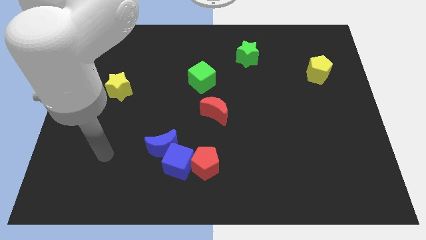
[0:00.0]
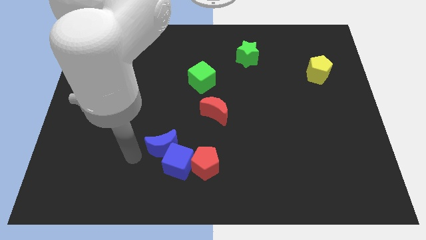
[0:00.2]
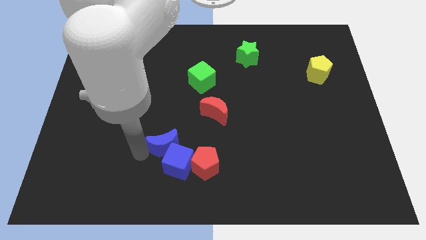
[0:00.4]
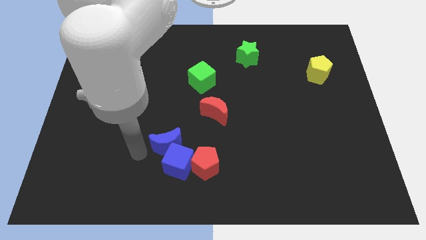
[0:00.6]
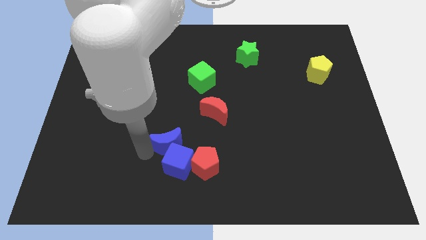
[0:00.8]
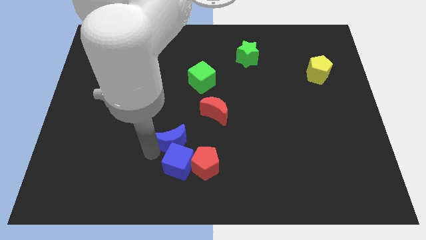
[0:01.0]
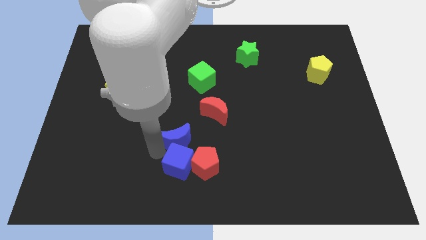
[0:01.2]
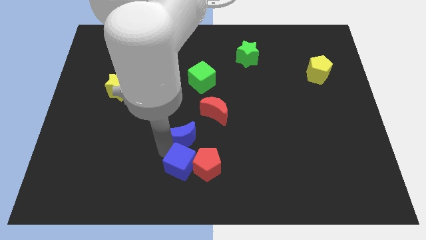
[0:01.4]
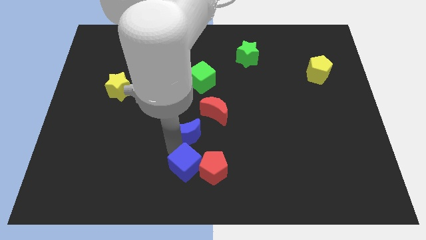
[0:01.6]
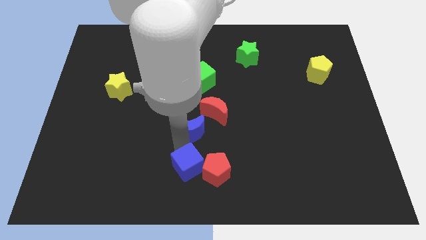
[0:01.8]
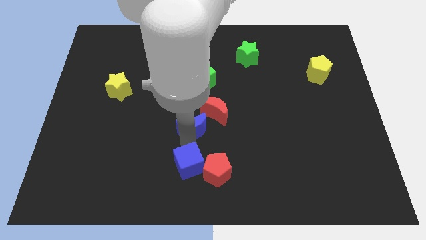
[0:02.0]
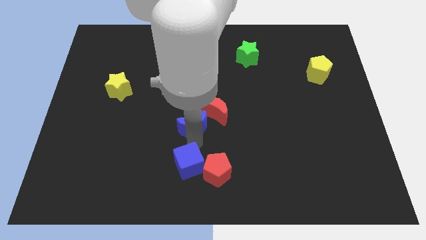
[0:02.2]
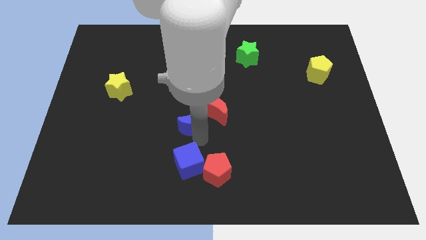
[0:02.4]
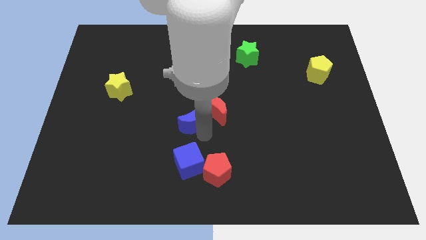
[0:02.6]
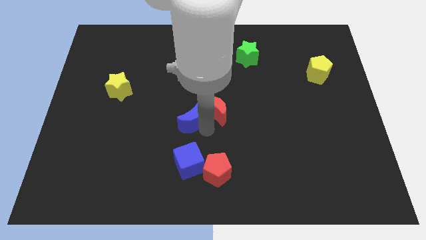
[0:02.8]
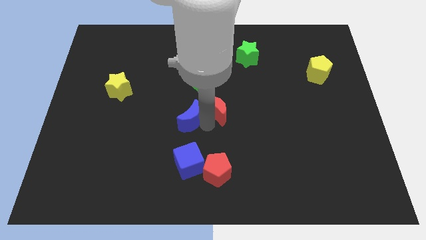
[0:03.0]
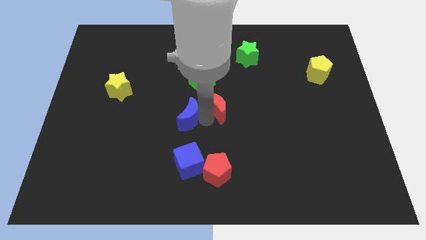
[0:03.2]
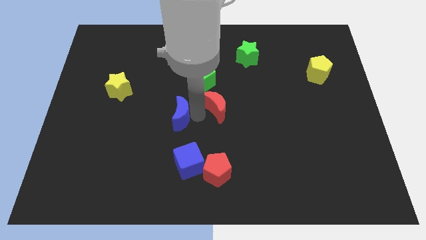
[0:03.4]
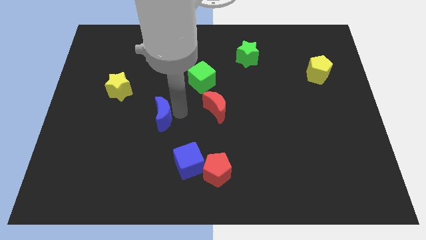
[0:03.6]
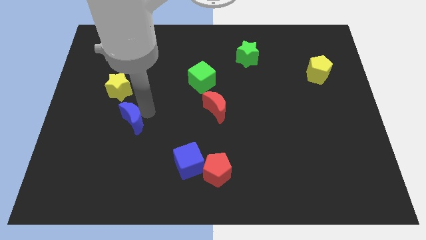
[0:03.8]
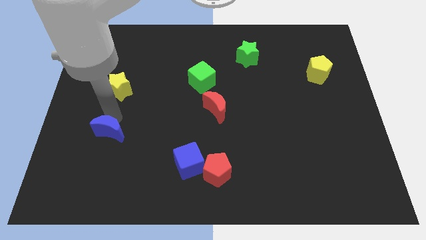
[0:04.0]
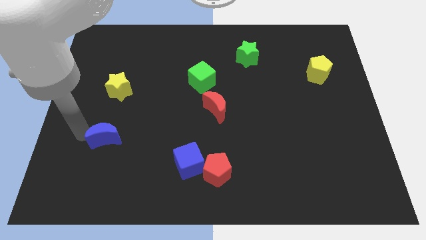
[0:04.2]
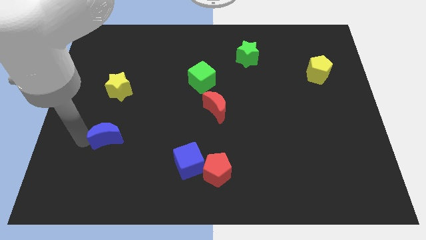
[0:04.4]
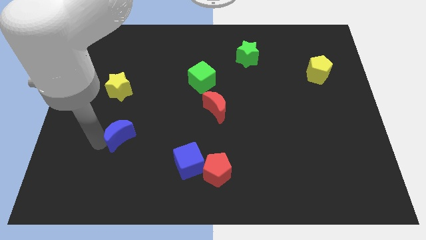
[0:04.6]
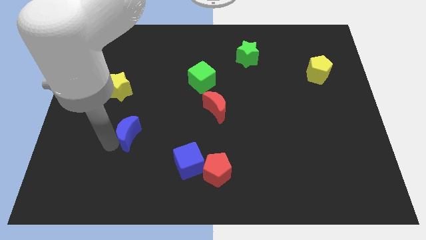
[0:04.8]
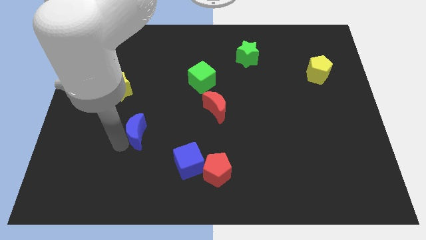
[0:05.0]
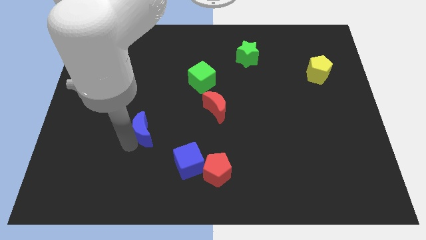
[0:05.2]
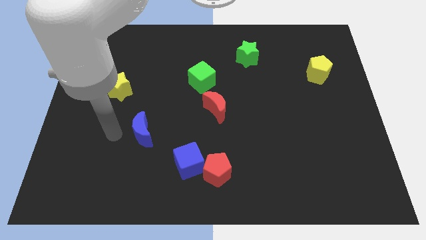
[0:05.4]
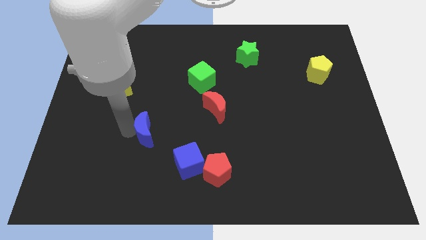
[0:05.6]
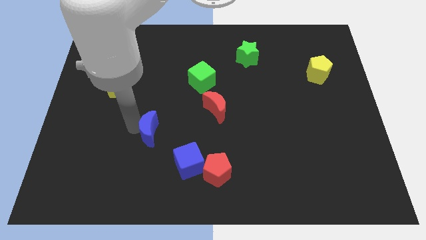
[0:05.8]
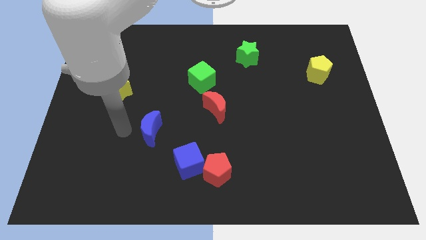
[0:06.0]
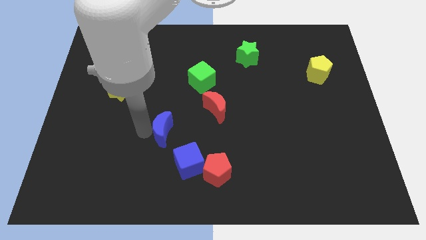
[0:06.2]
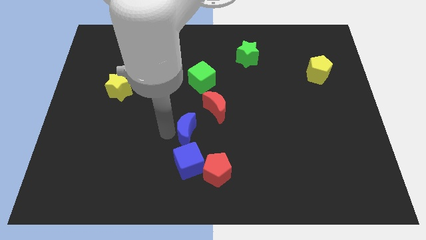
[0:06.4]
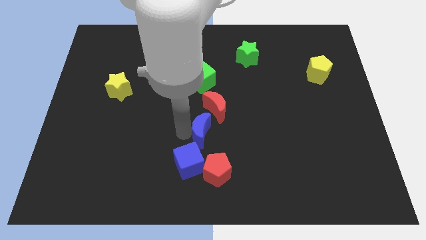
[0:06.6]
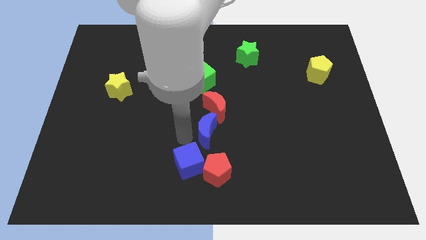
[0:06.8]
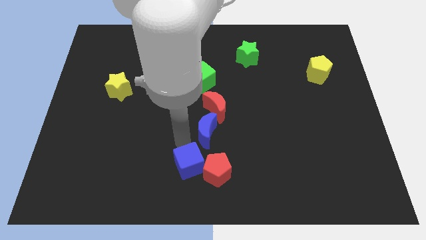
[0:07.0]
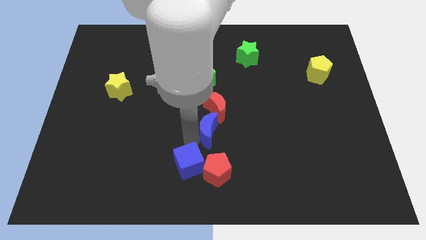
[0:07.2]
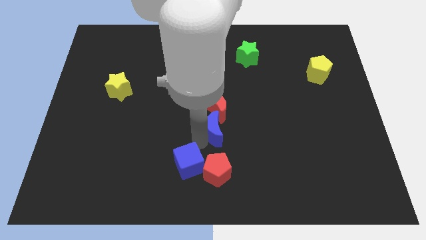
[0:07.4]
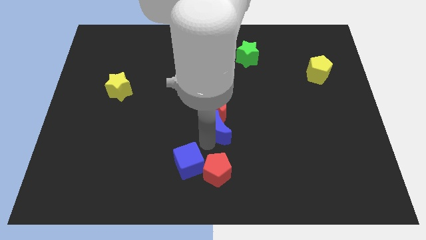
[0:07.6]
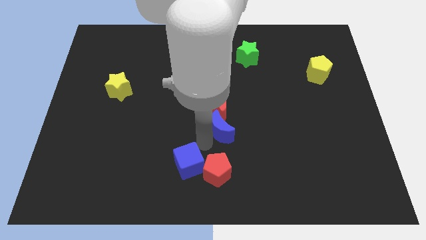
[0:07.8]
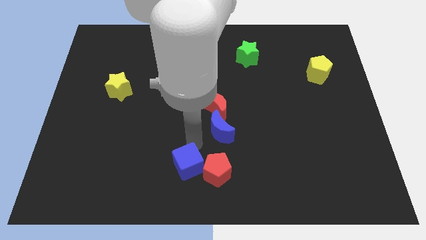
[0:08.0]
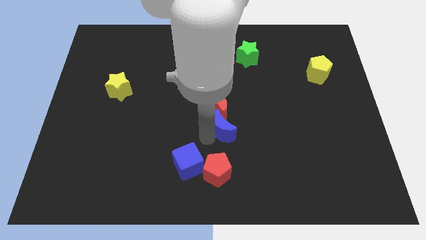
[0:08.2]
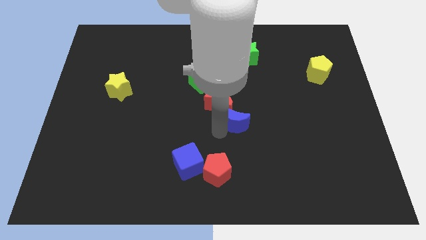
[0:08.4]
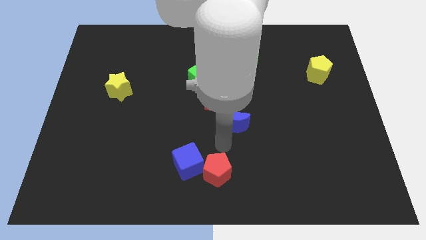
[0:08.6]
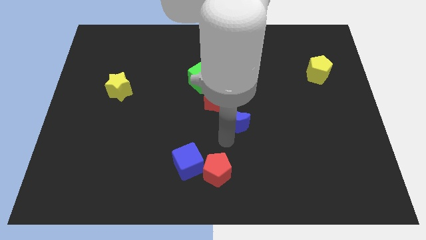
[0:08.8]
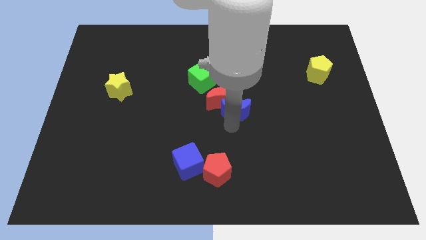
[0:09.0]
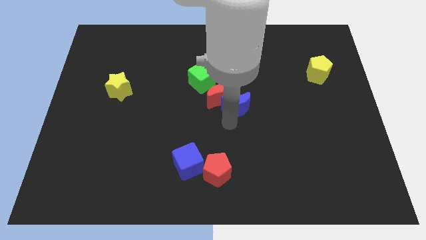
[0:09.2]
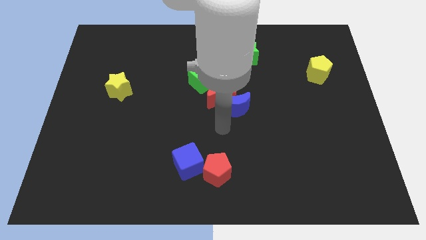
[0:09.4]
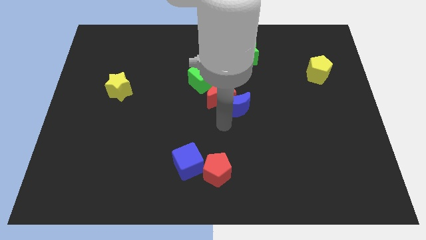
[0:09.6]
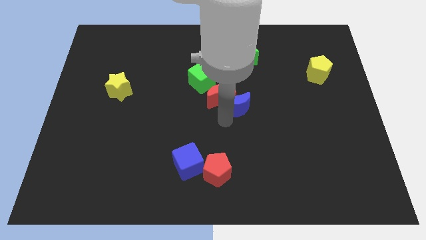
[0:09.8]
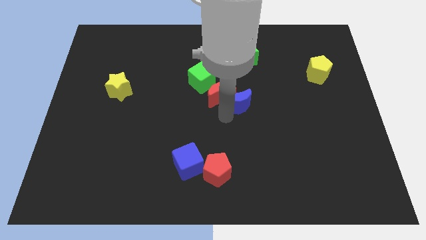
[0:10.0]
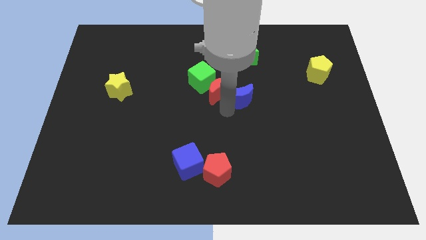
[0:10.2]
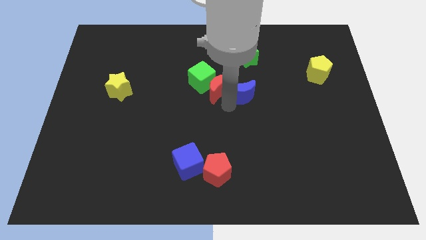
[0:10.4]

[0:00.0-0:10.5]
slide the blue moon to the right of the green cube

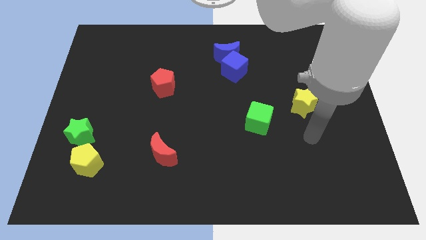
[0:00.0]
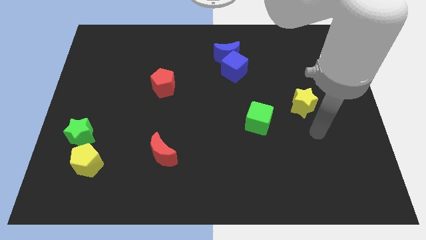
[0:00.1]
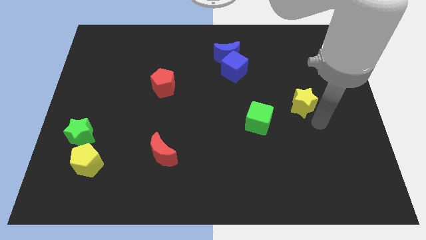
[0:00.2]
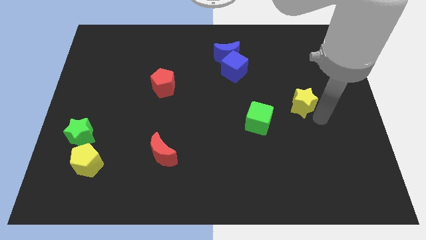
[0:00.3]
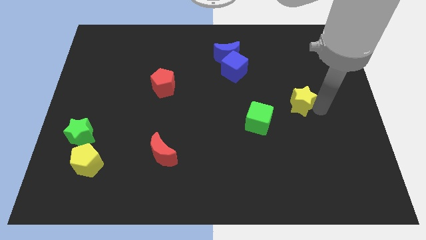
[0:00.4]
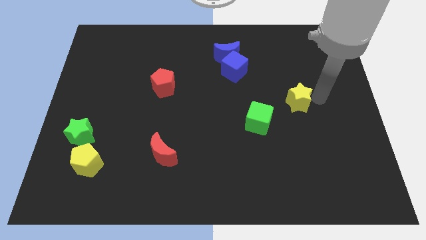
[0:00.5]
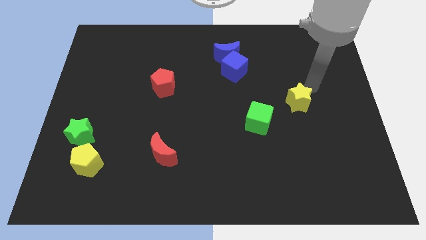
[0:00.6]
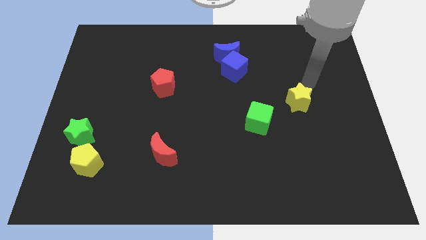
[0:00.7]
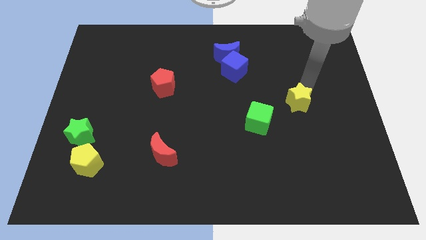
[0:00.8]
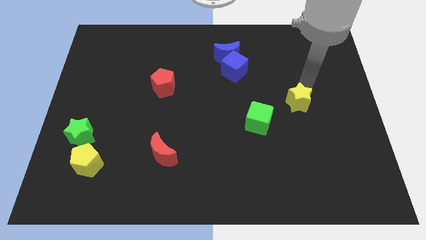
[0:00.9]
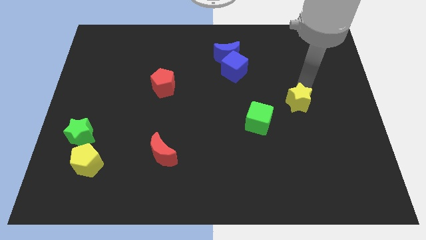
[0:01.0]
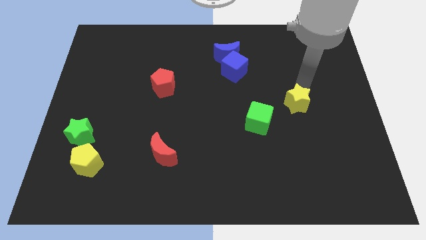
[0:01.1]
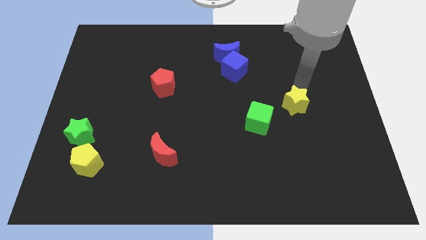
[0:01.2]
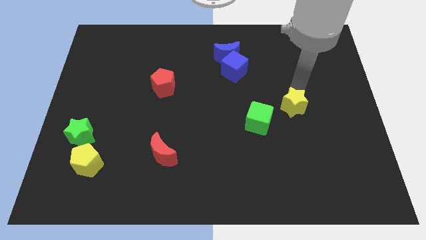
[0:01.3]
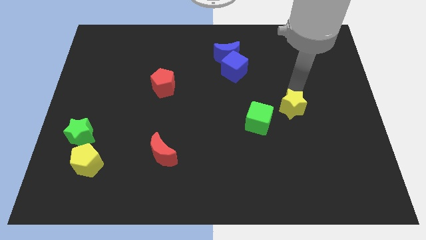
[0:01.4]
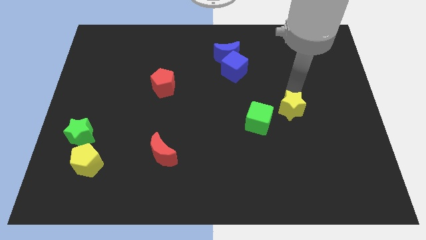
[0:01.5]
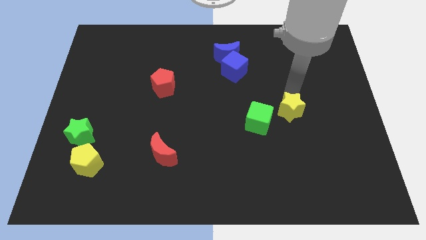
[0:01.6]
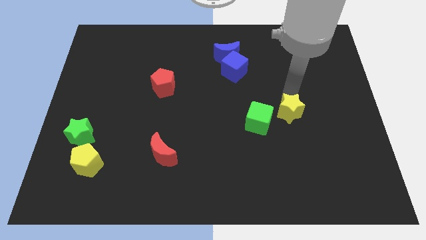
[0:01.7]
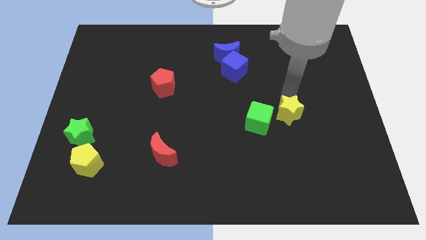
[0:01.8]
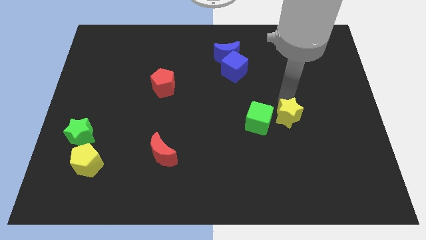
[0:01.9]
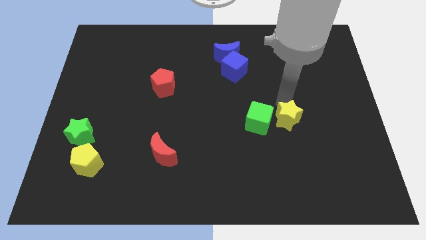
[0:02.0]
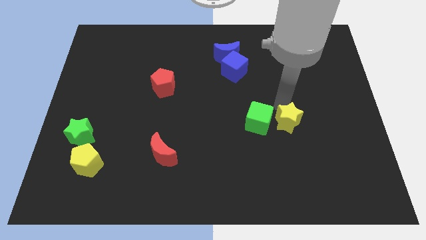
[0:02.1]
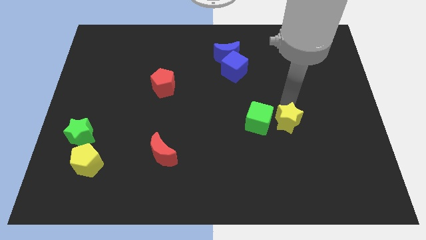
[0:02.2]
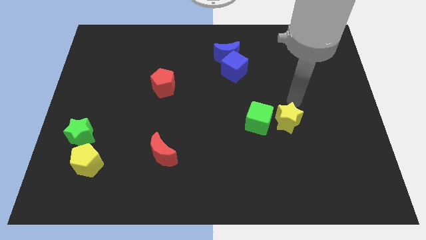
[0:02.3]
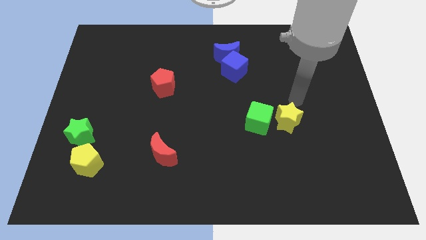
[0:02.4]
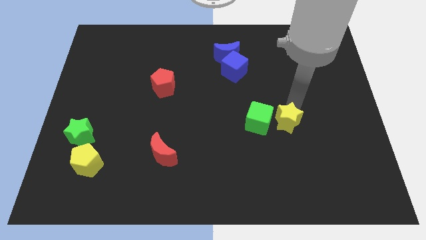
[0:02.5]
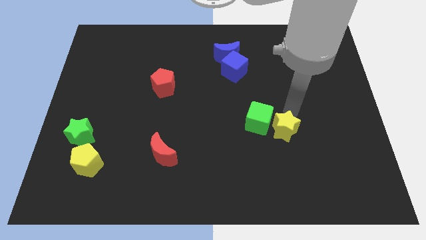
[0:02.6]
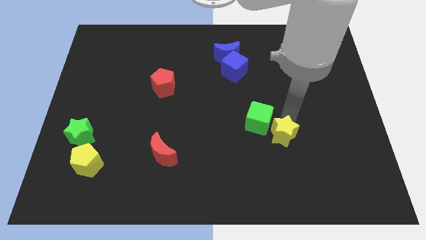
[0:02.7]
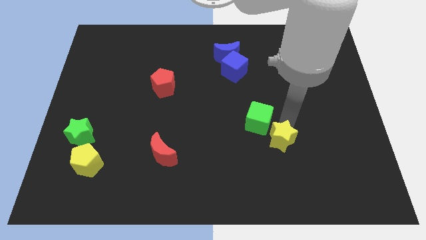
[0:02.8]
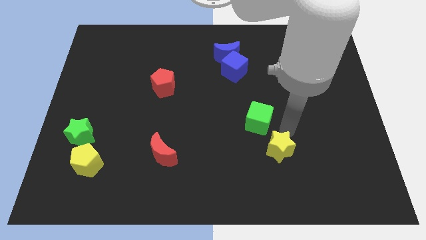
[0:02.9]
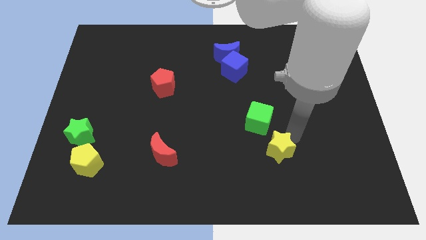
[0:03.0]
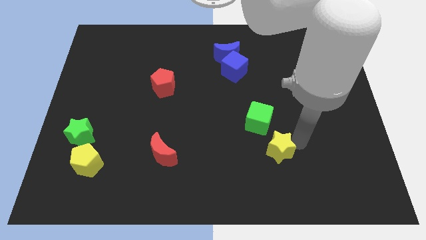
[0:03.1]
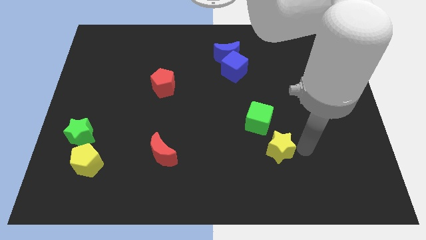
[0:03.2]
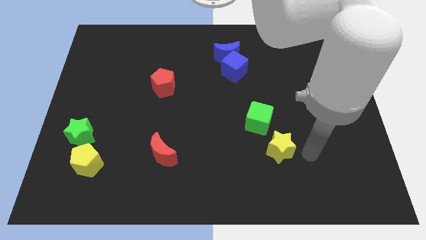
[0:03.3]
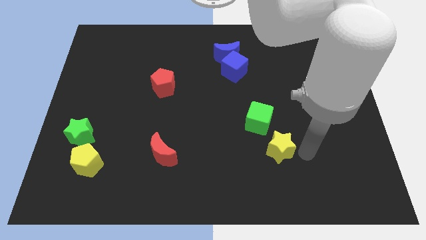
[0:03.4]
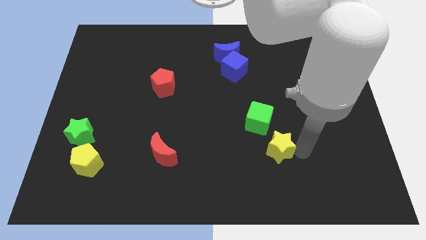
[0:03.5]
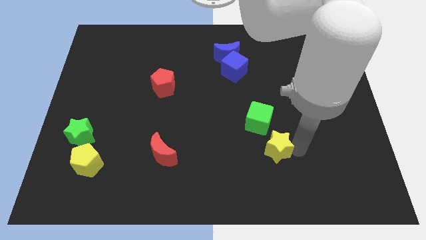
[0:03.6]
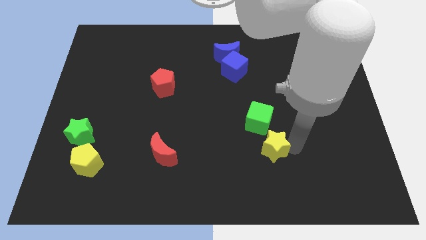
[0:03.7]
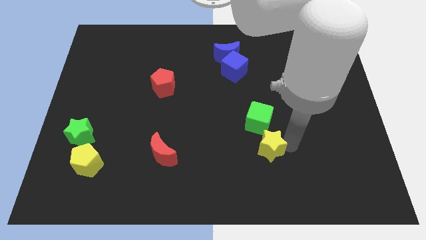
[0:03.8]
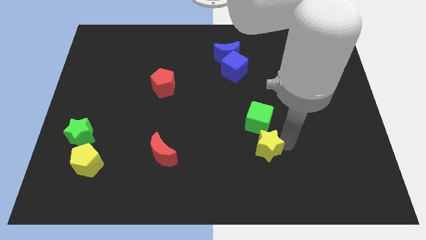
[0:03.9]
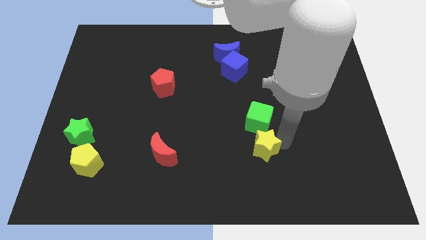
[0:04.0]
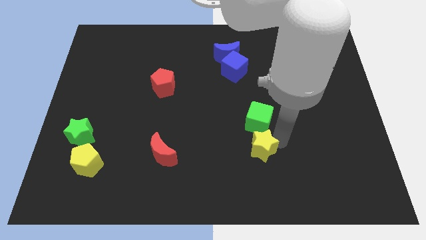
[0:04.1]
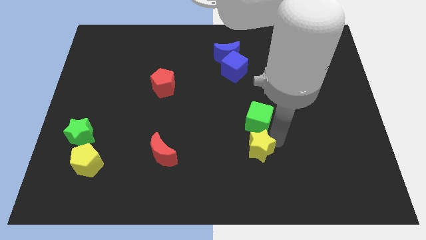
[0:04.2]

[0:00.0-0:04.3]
put the yellow star to the bottom left side of the green cube
